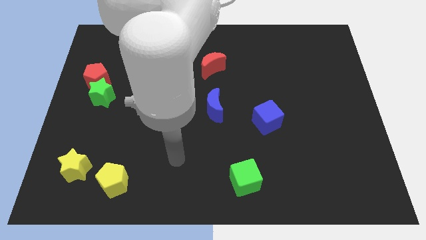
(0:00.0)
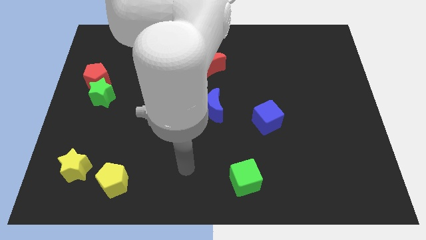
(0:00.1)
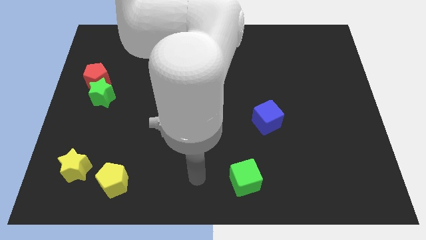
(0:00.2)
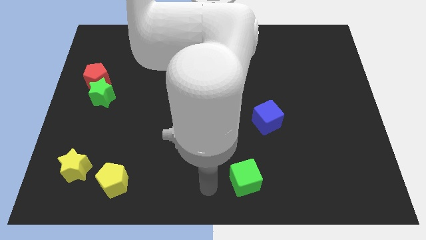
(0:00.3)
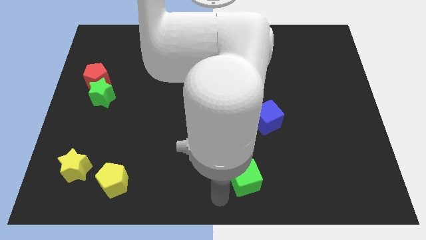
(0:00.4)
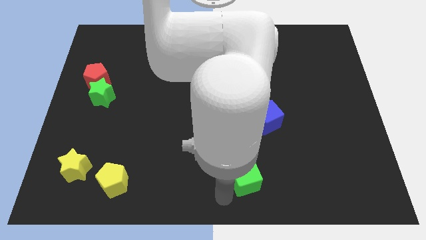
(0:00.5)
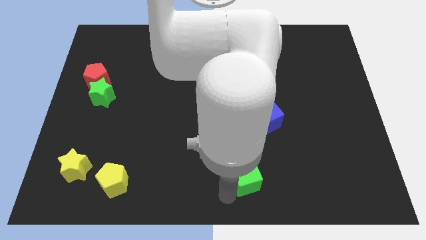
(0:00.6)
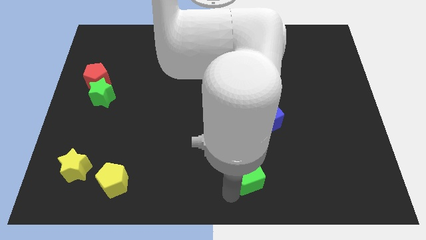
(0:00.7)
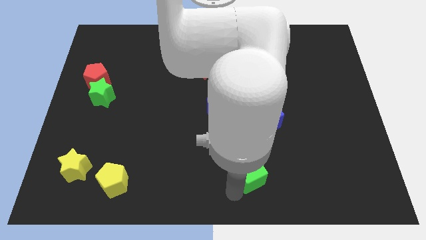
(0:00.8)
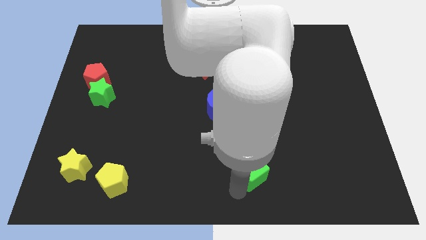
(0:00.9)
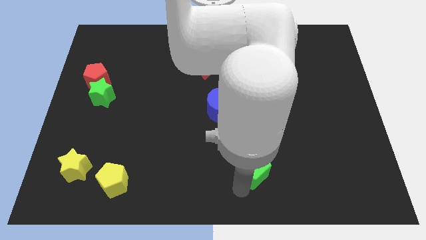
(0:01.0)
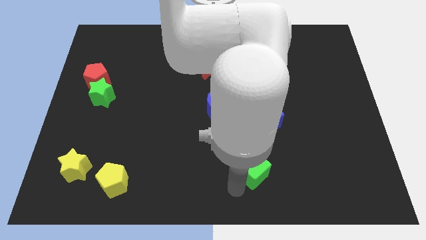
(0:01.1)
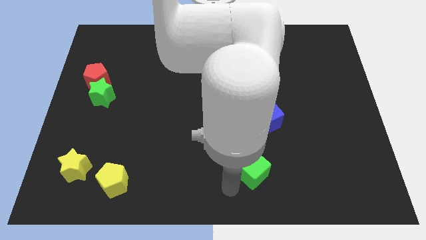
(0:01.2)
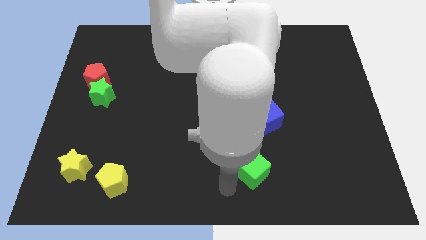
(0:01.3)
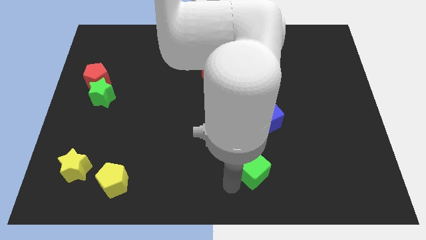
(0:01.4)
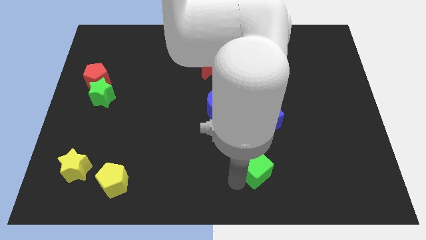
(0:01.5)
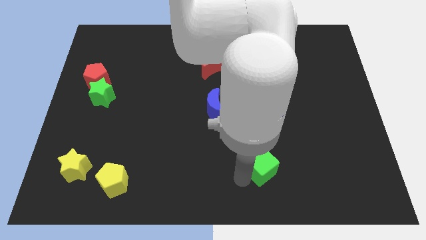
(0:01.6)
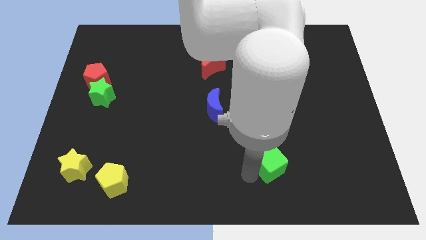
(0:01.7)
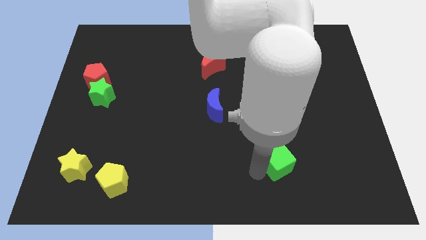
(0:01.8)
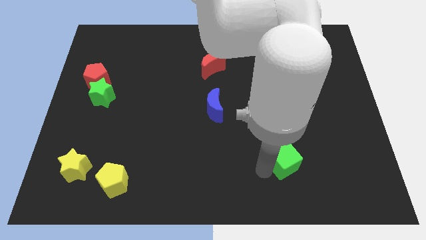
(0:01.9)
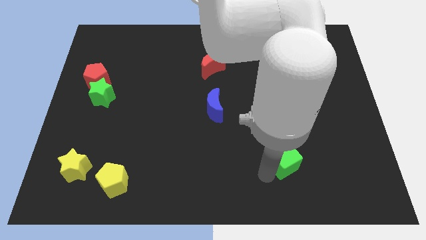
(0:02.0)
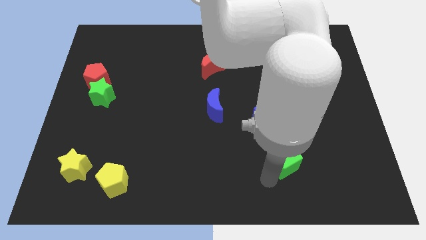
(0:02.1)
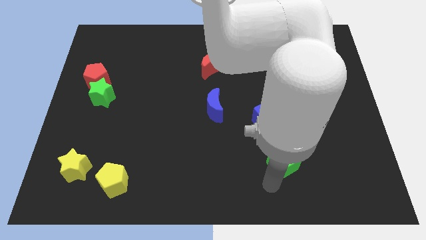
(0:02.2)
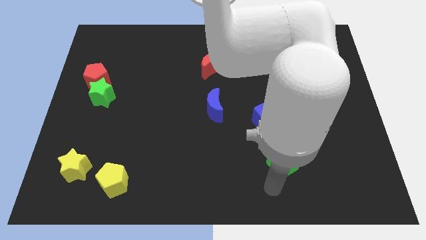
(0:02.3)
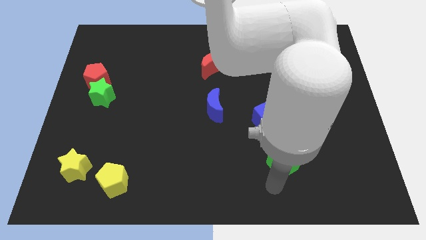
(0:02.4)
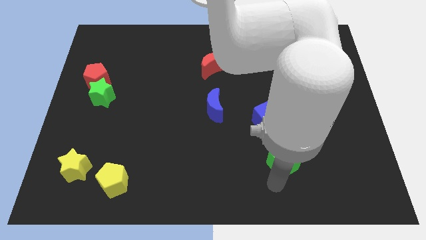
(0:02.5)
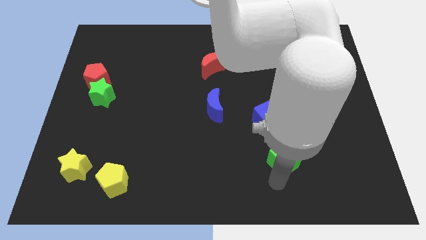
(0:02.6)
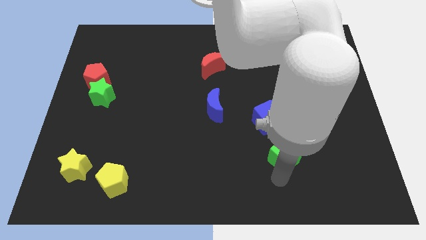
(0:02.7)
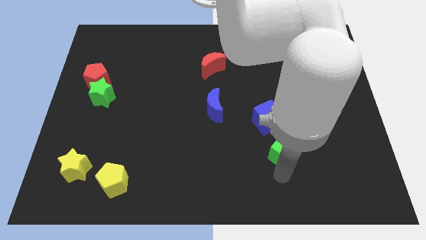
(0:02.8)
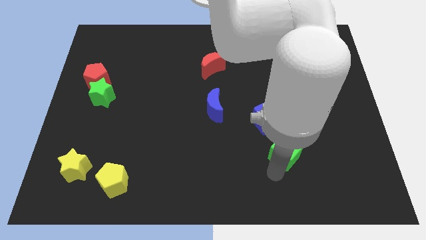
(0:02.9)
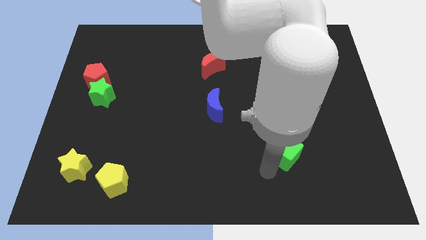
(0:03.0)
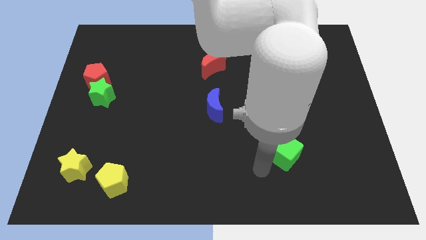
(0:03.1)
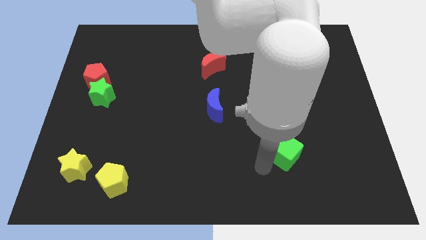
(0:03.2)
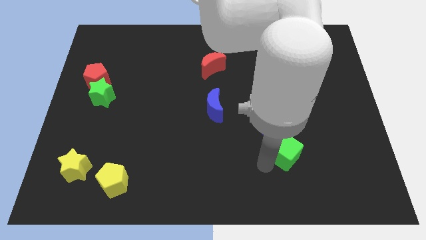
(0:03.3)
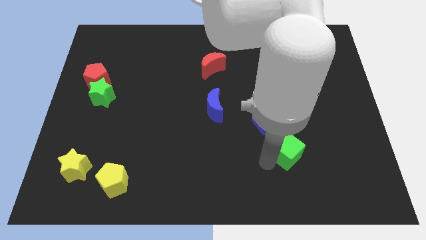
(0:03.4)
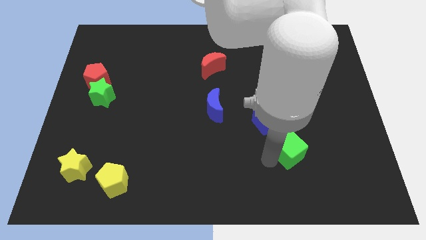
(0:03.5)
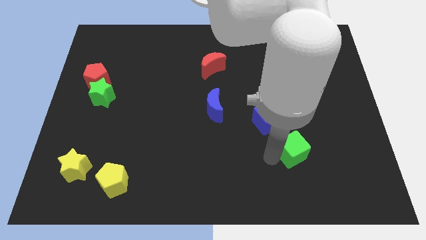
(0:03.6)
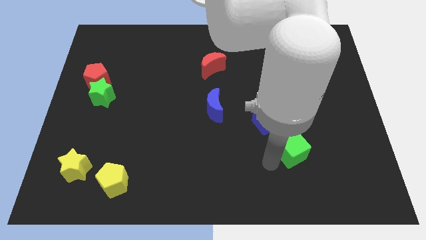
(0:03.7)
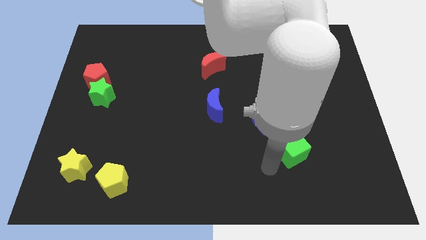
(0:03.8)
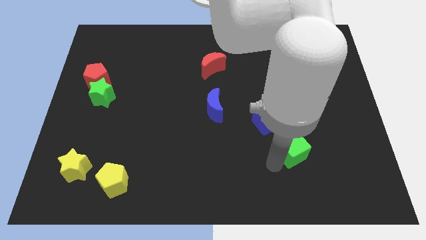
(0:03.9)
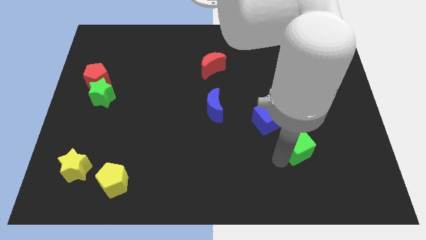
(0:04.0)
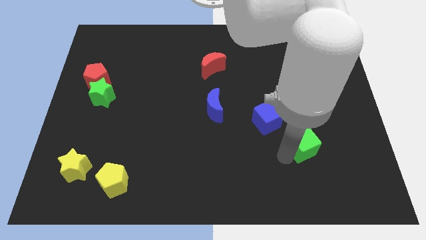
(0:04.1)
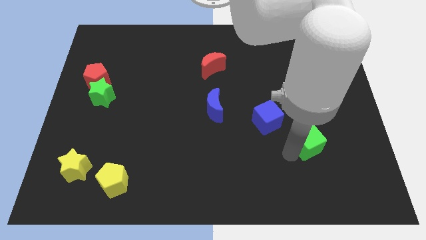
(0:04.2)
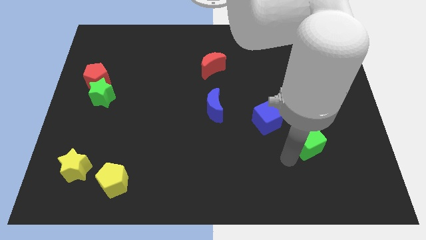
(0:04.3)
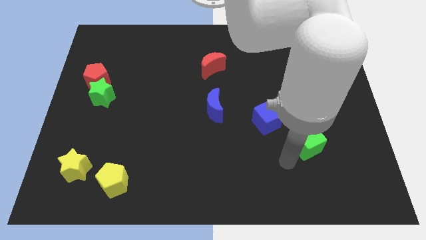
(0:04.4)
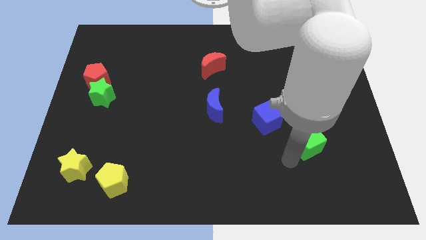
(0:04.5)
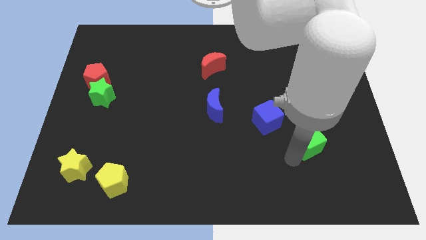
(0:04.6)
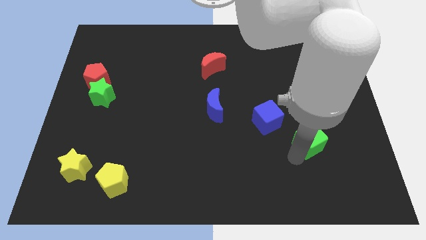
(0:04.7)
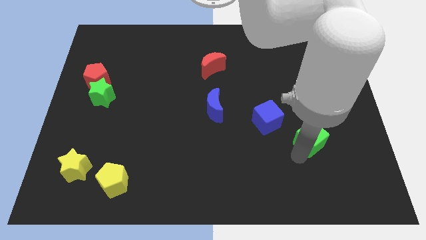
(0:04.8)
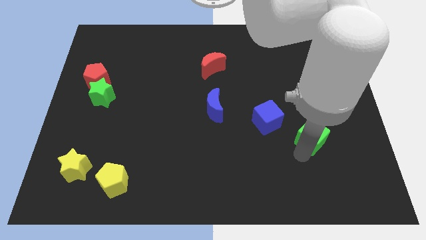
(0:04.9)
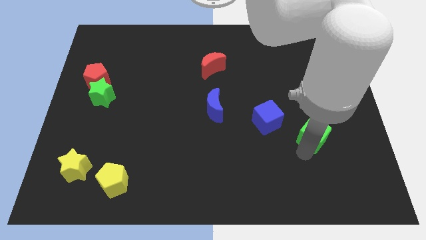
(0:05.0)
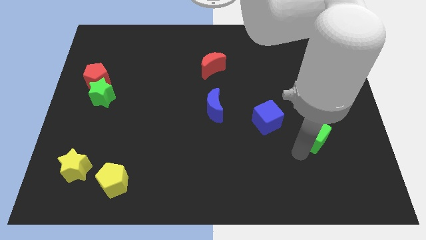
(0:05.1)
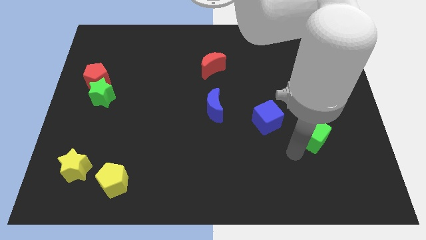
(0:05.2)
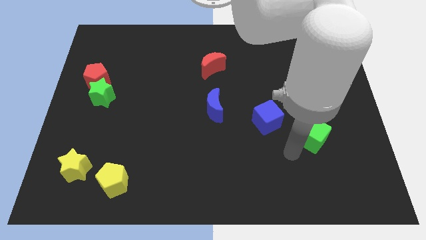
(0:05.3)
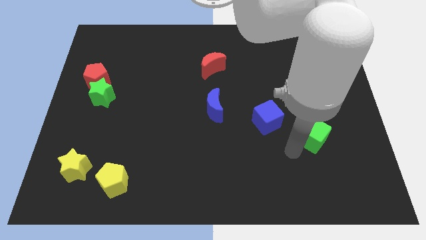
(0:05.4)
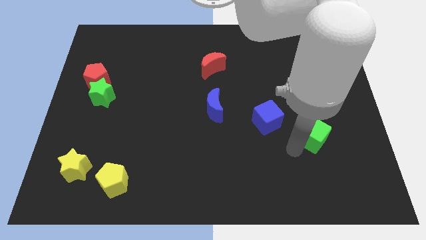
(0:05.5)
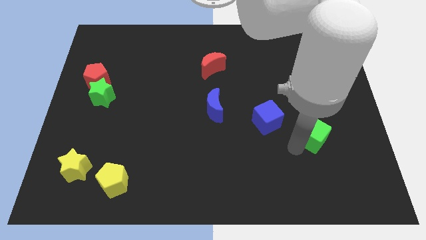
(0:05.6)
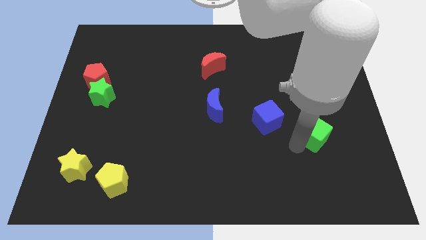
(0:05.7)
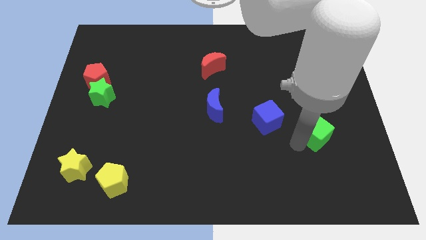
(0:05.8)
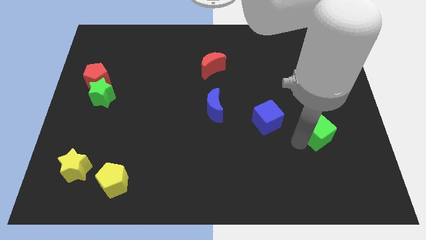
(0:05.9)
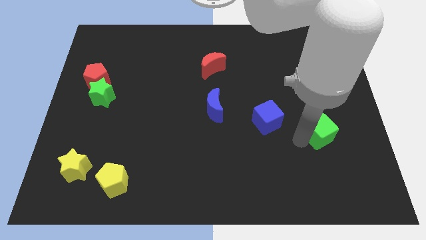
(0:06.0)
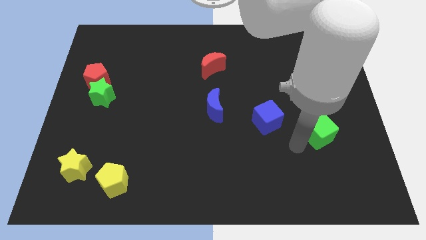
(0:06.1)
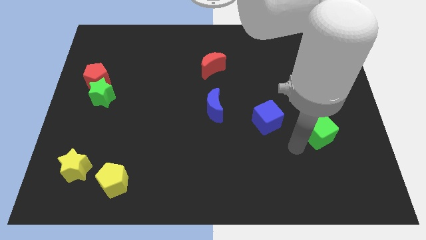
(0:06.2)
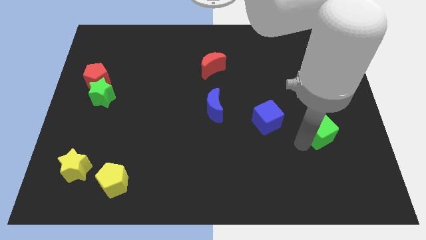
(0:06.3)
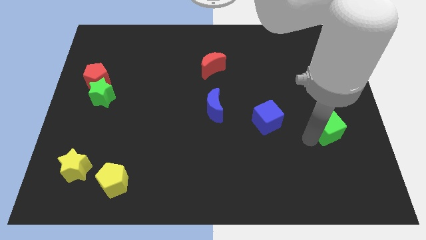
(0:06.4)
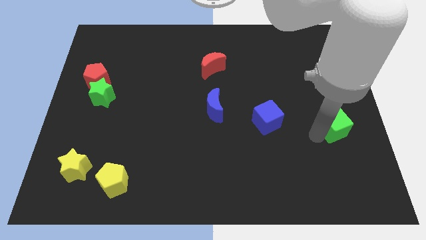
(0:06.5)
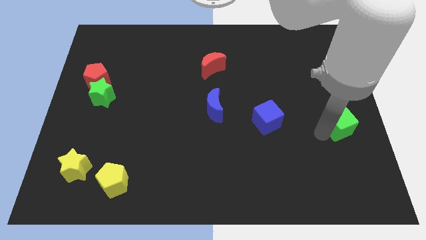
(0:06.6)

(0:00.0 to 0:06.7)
slide the green cube to the right side
